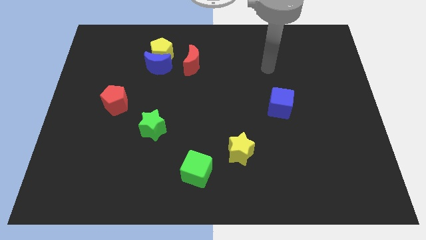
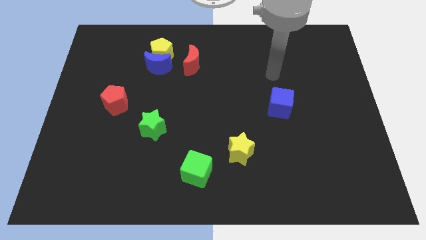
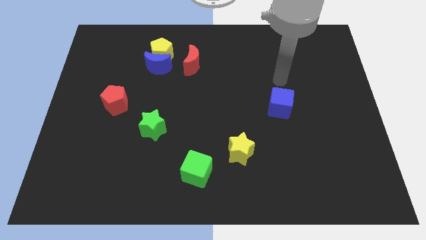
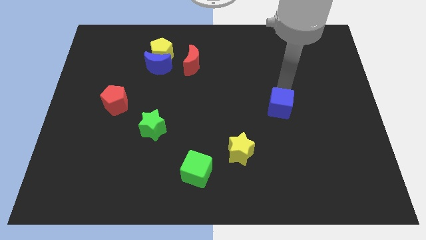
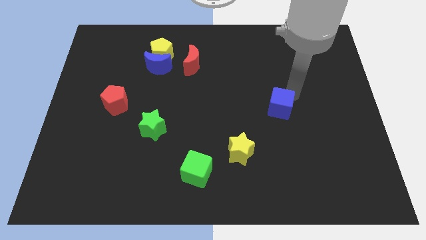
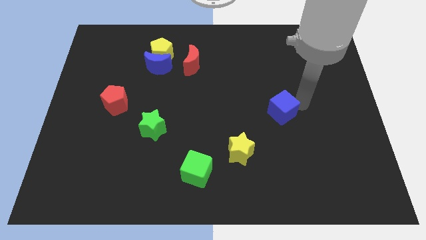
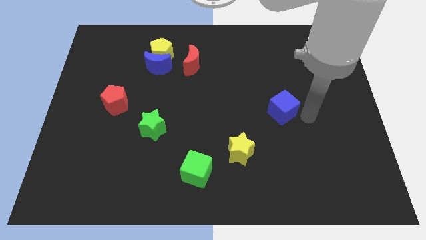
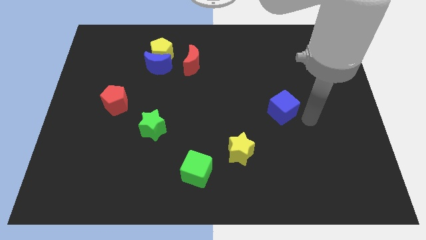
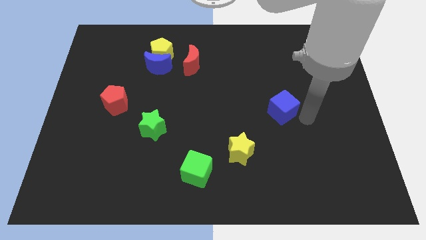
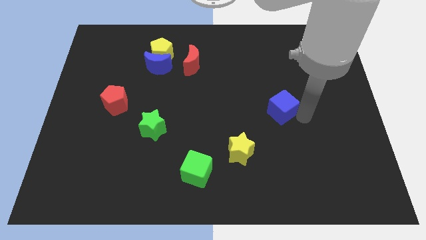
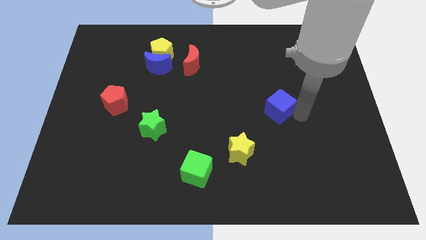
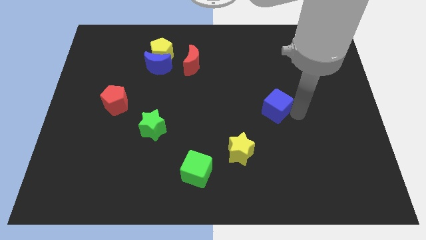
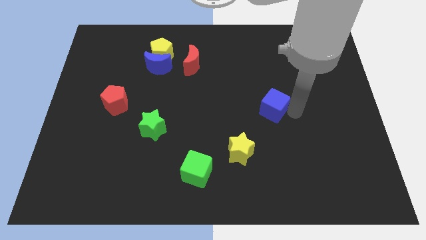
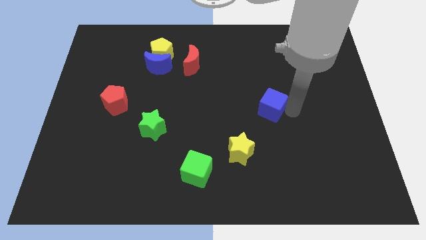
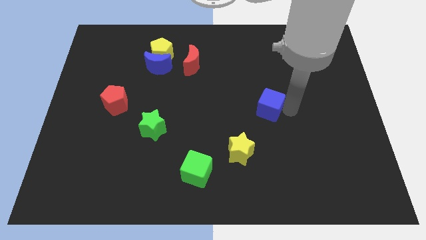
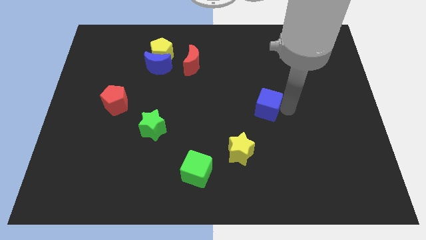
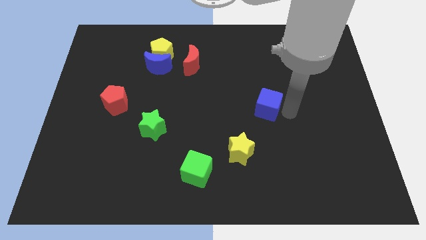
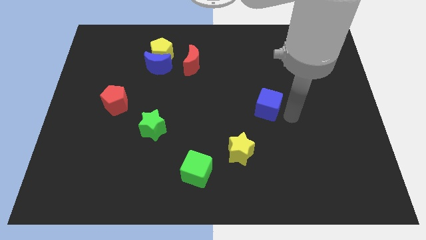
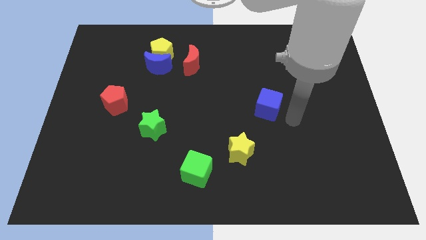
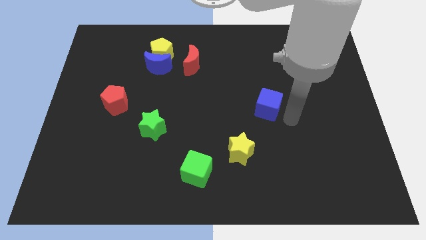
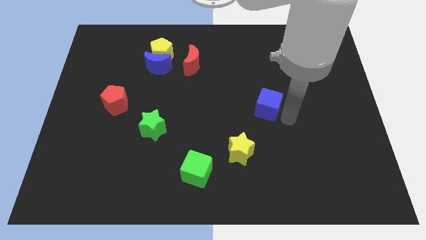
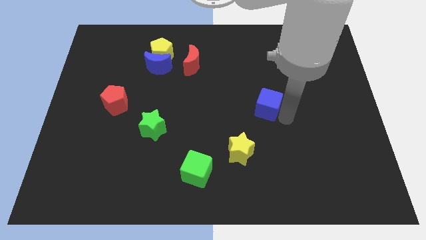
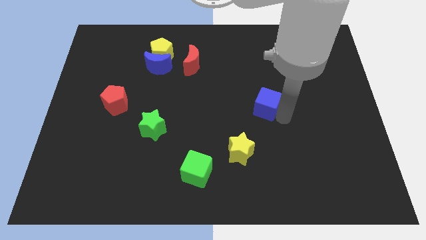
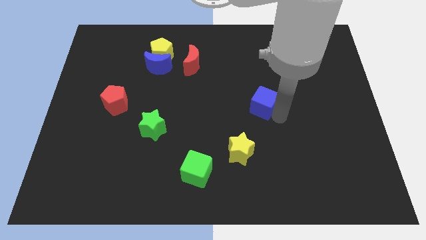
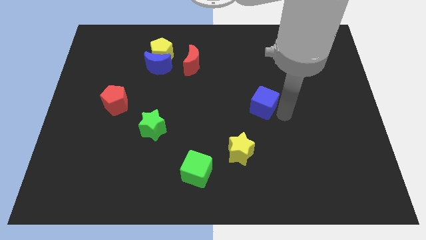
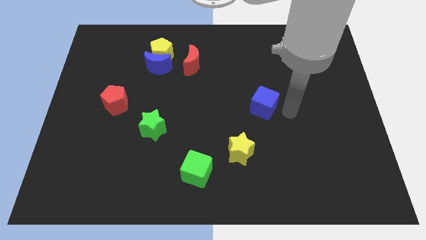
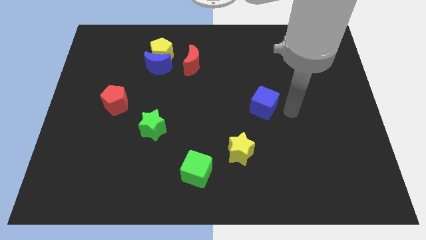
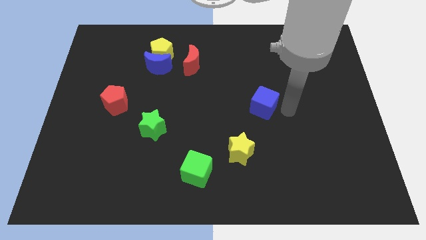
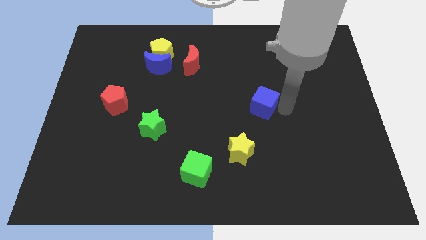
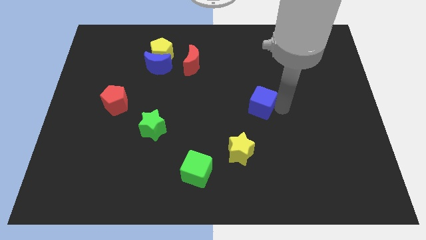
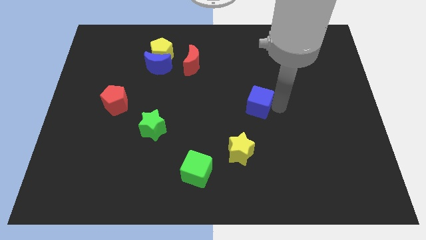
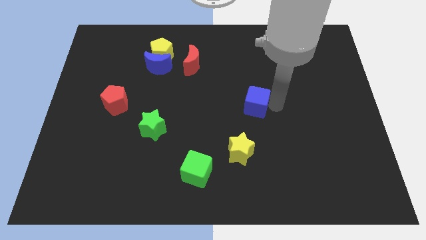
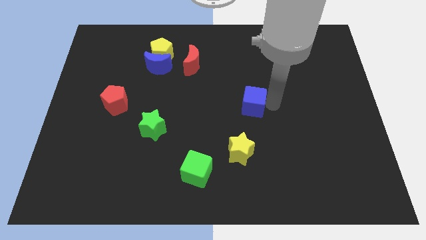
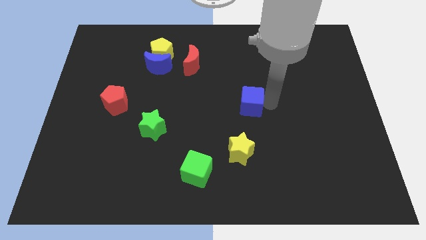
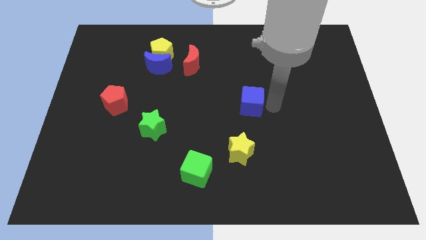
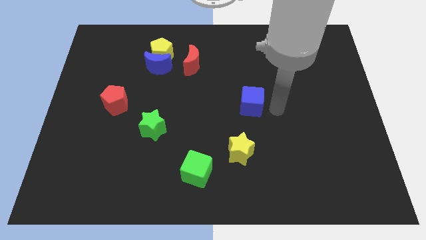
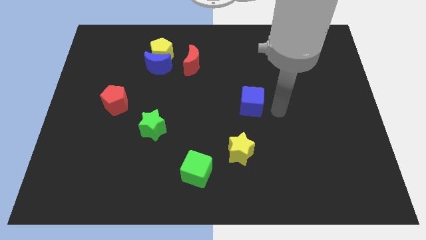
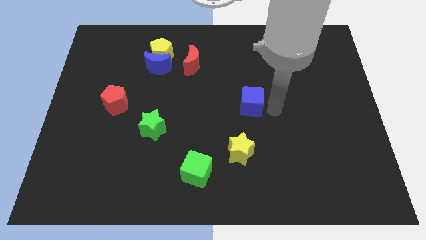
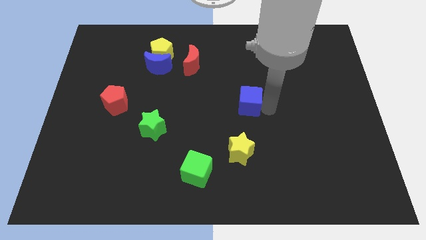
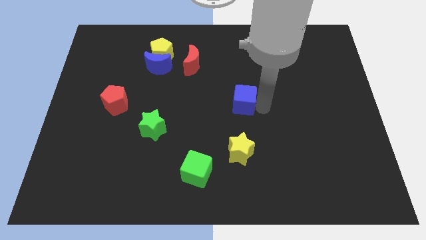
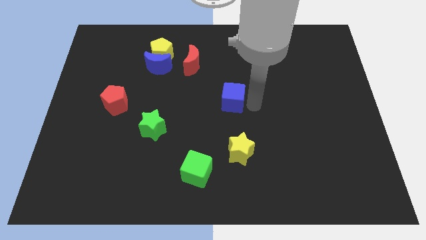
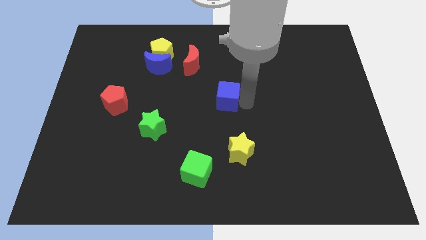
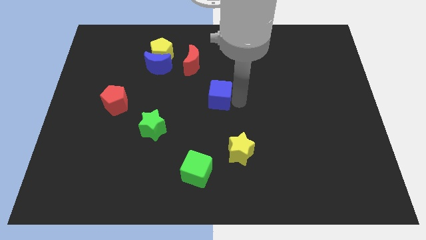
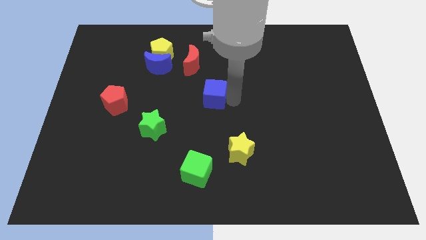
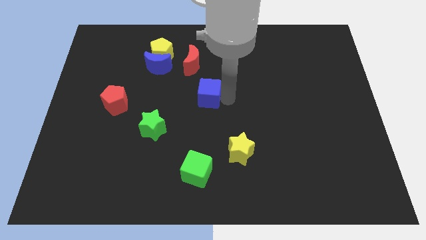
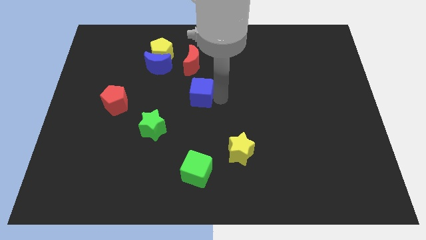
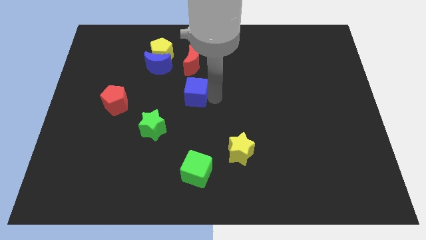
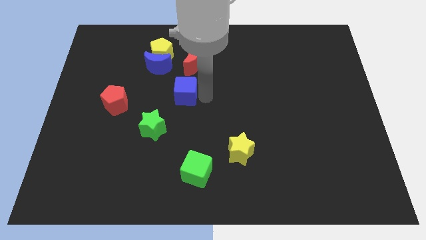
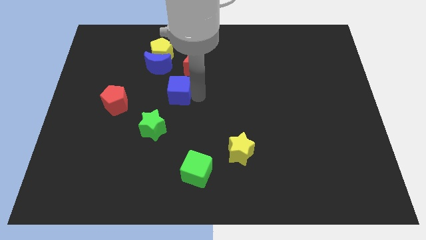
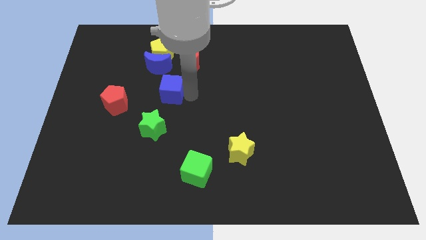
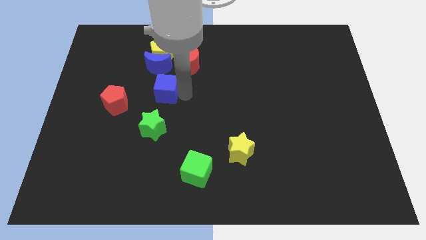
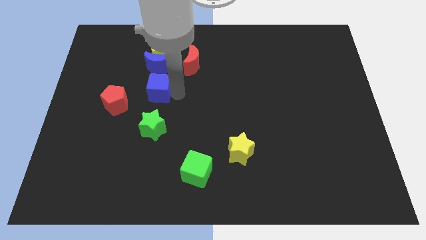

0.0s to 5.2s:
push the blue cube to the top right side of the red pentagon

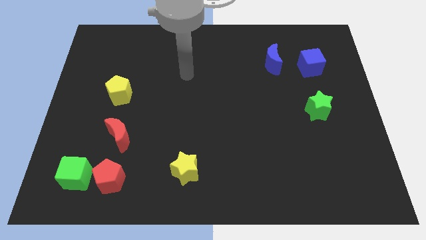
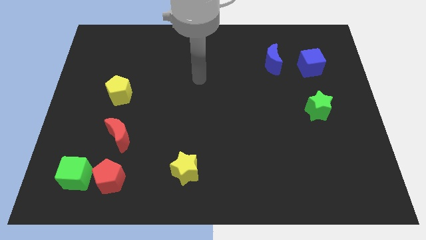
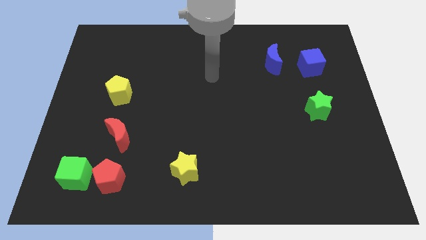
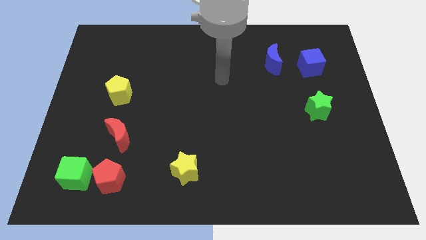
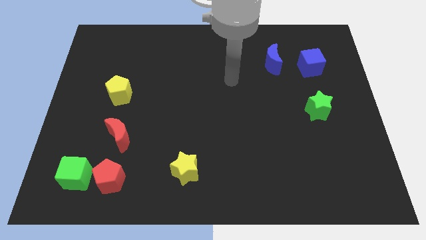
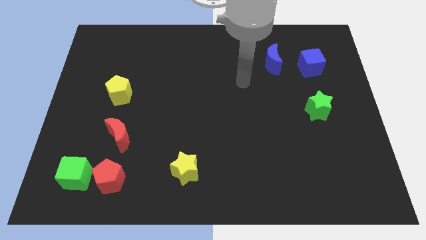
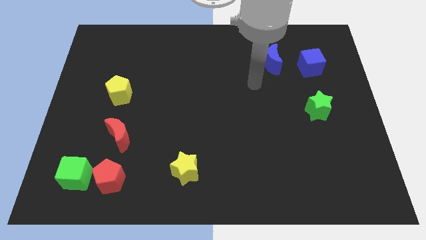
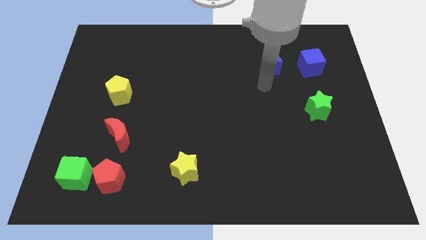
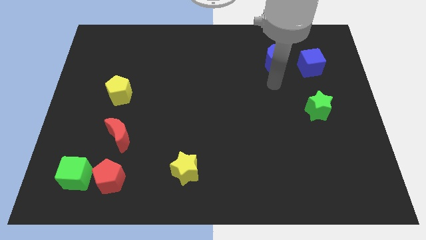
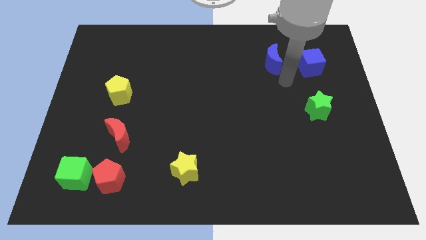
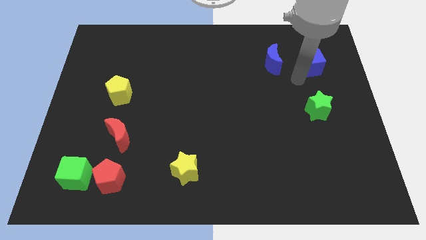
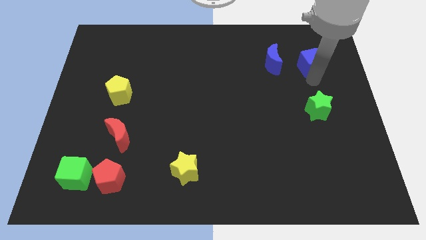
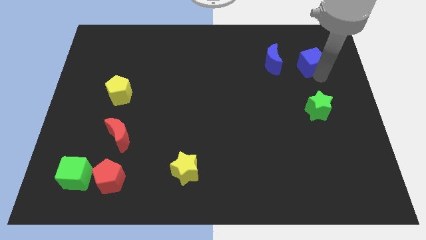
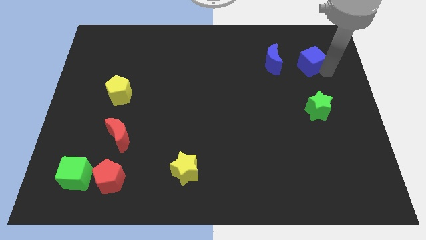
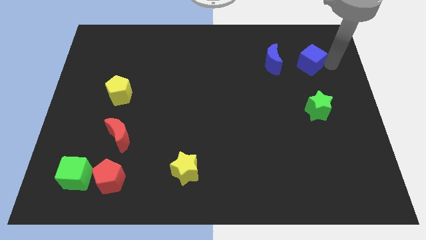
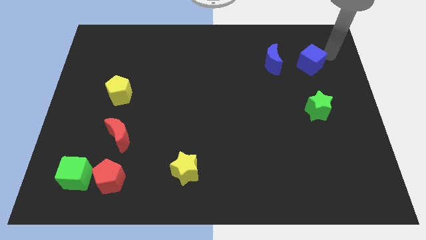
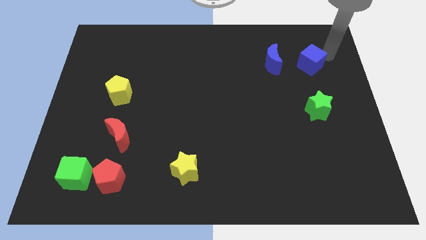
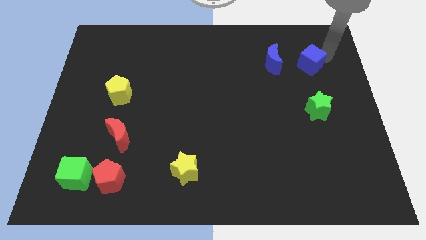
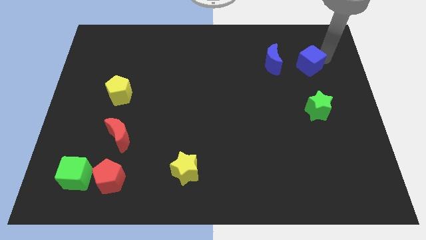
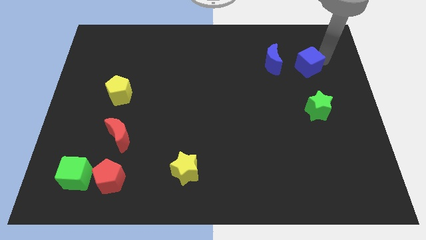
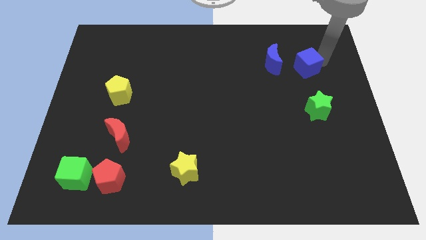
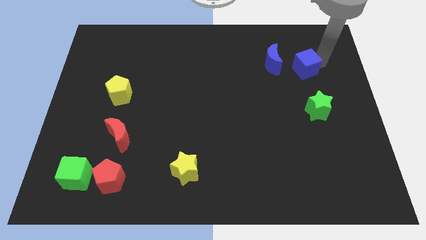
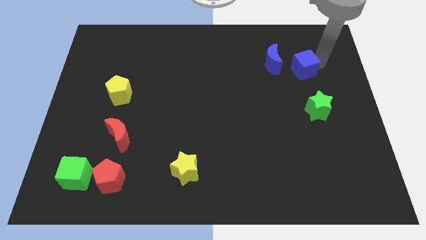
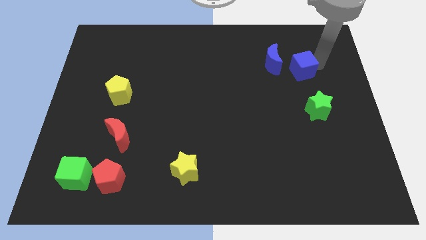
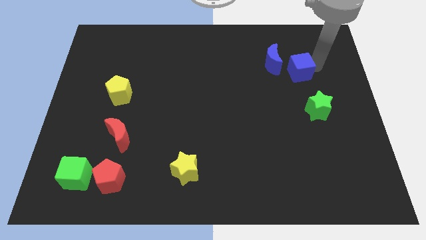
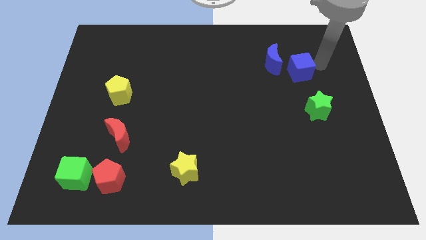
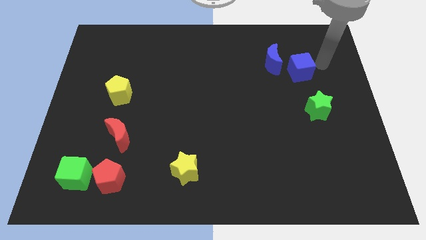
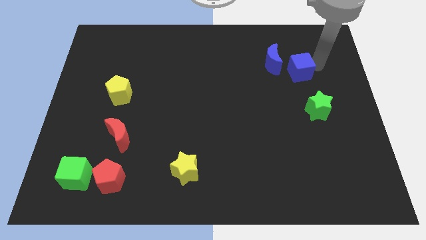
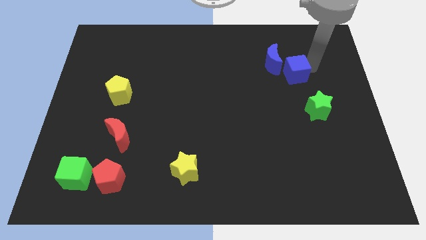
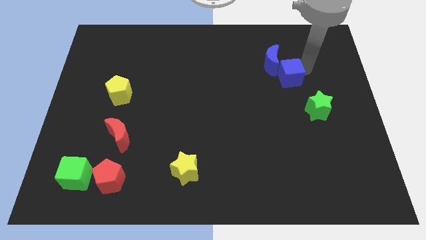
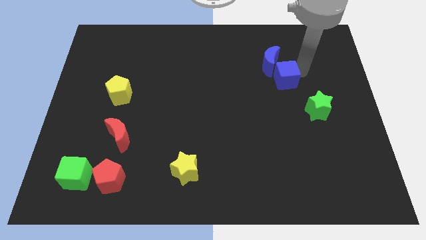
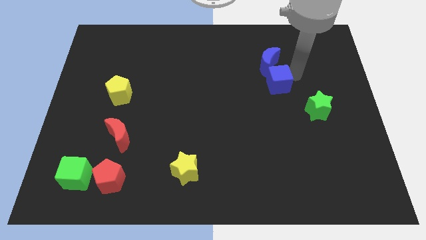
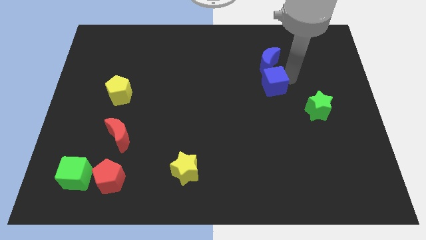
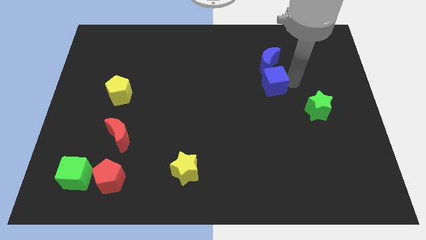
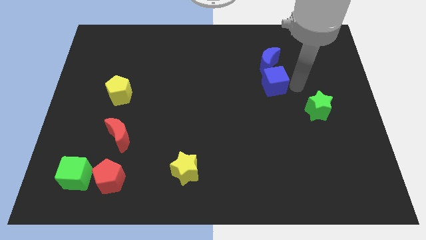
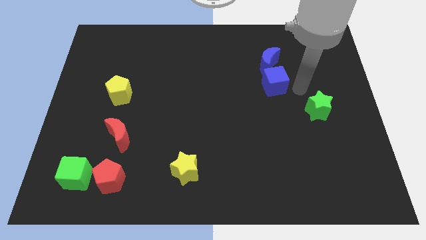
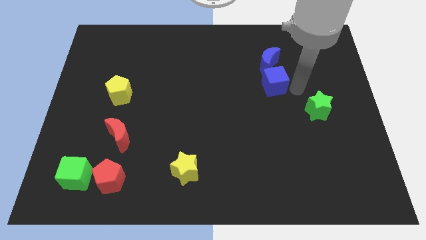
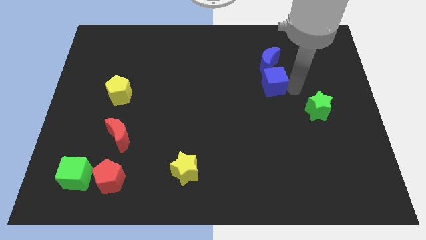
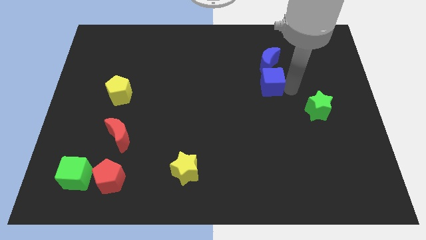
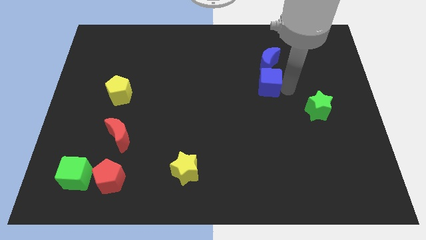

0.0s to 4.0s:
move the blue cube to the bottom left of the blue moon
